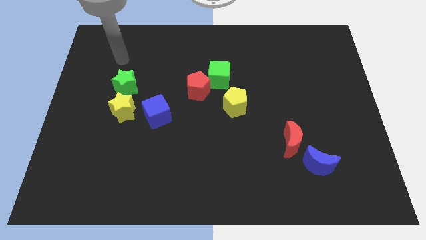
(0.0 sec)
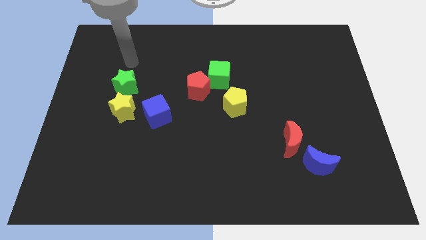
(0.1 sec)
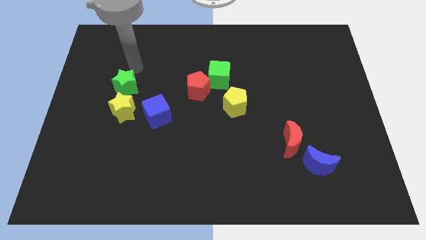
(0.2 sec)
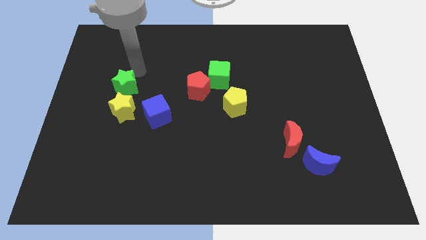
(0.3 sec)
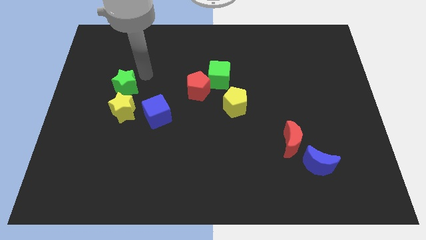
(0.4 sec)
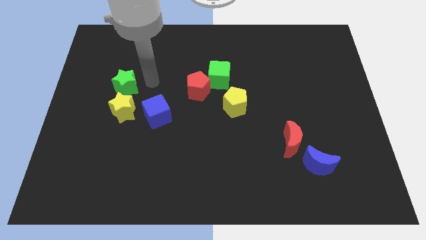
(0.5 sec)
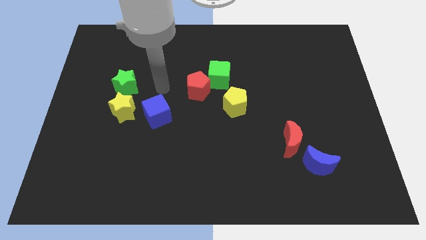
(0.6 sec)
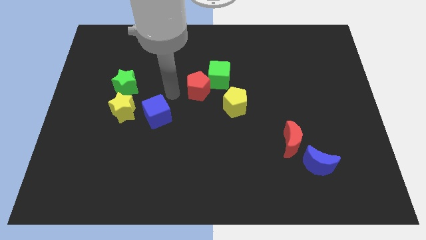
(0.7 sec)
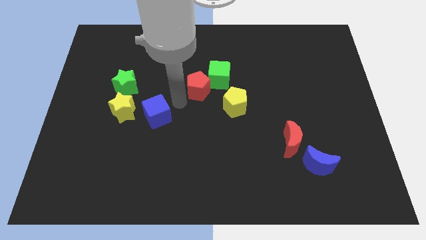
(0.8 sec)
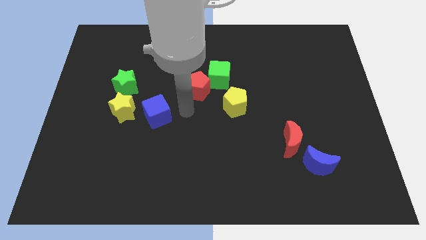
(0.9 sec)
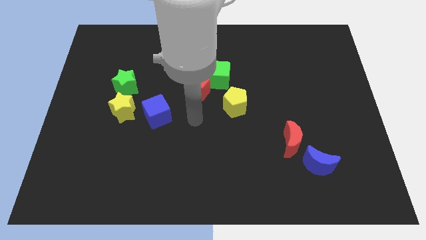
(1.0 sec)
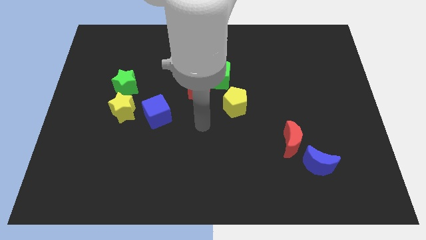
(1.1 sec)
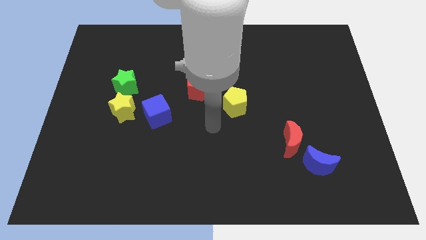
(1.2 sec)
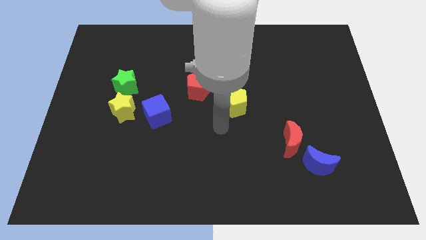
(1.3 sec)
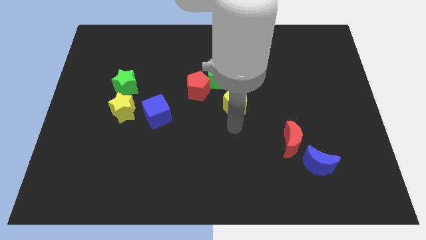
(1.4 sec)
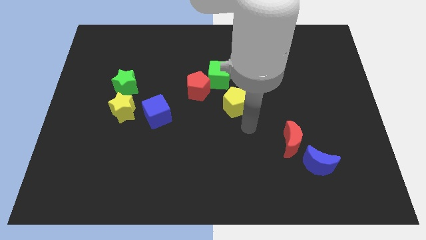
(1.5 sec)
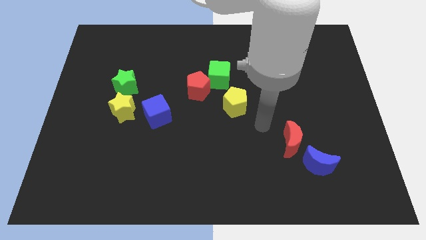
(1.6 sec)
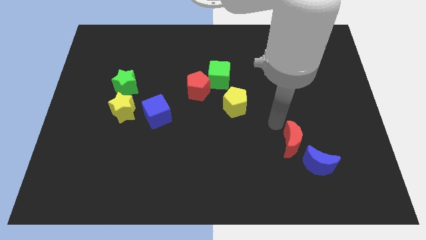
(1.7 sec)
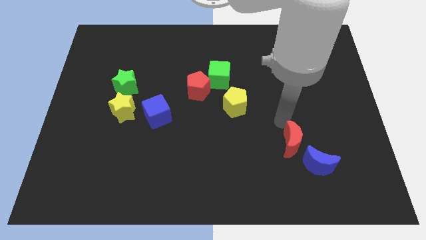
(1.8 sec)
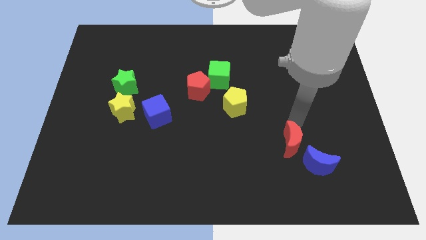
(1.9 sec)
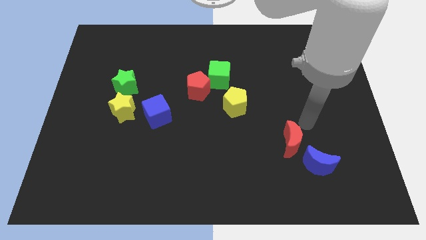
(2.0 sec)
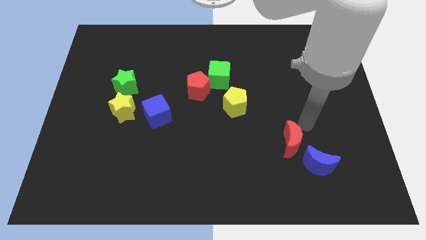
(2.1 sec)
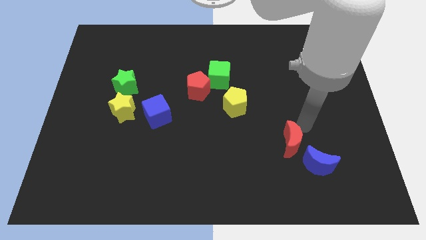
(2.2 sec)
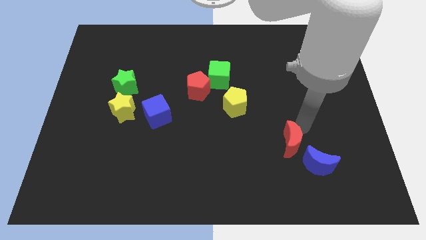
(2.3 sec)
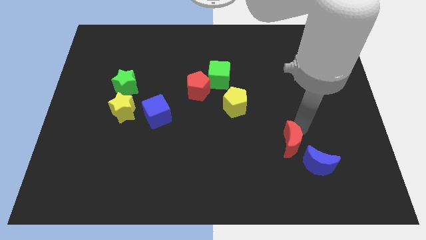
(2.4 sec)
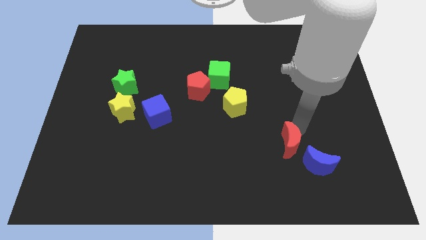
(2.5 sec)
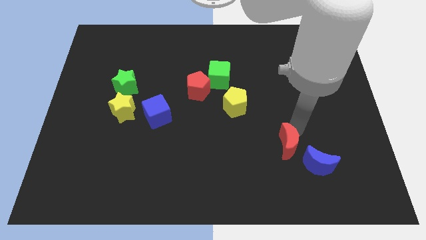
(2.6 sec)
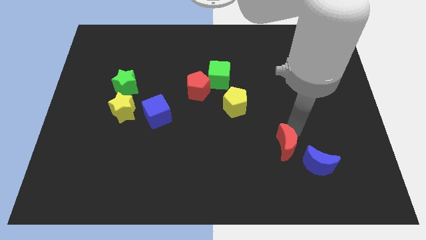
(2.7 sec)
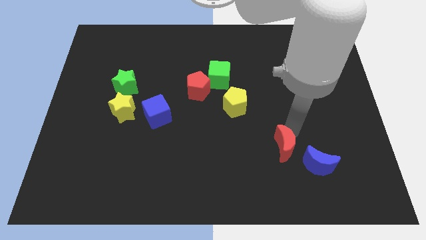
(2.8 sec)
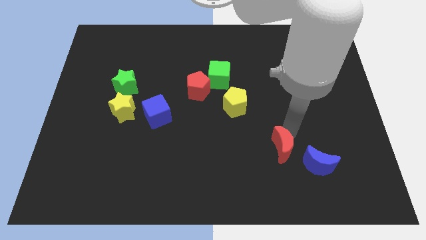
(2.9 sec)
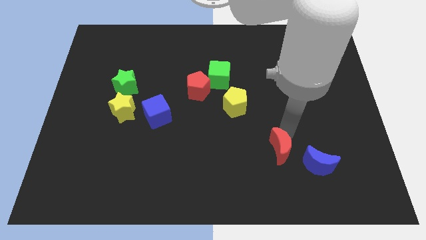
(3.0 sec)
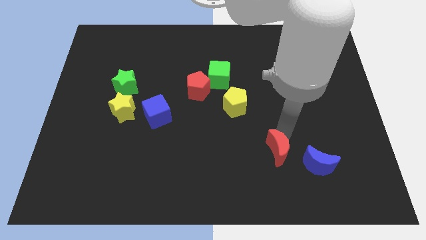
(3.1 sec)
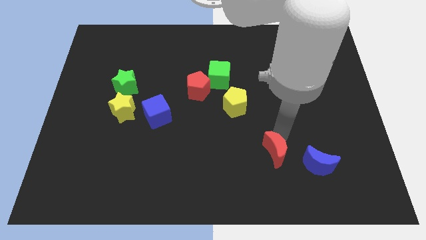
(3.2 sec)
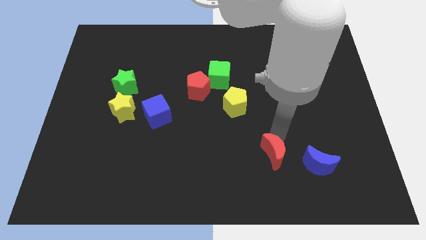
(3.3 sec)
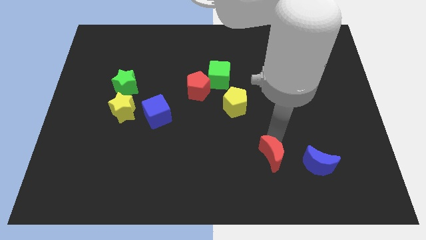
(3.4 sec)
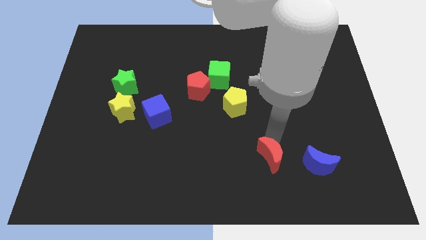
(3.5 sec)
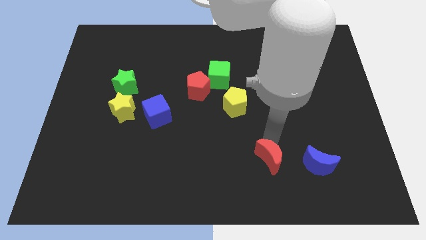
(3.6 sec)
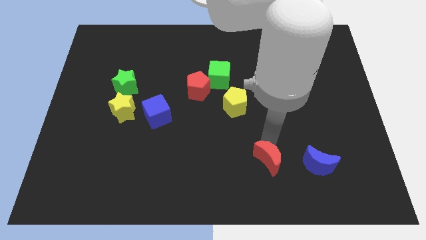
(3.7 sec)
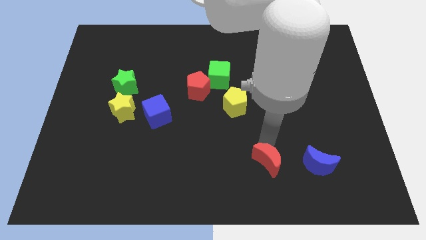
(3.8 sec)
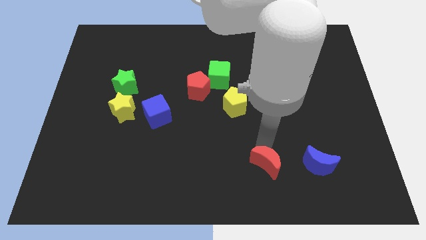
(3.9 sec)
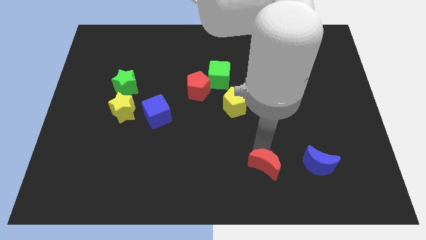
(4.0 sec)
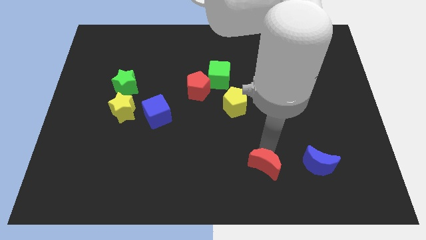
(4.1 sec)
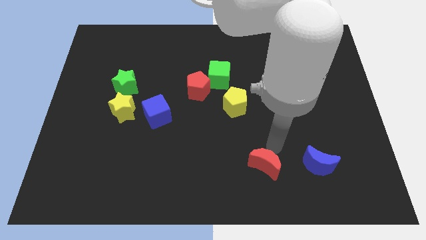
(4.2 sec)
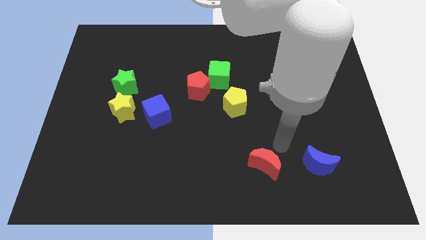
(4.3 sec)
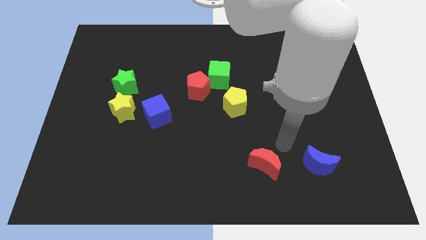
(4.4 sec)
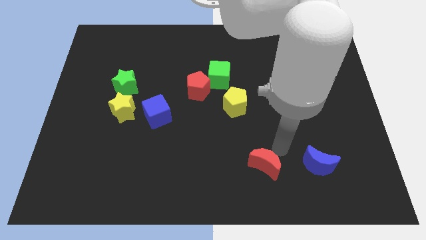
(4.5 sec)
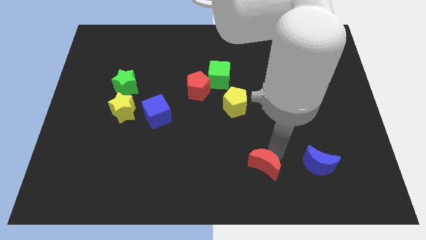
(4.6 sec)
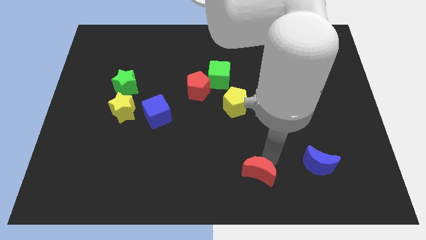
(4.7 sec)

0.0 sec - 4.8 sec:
slide the red moon to the bottom

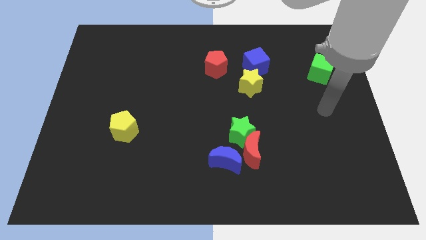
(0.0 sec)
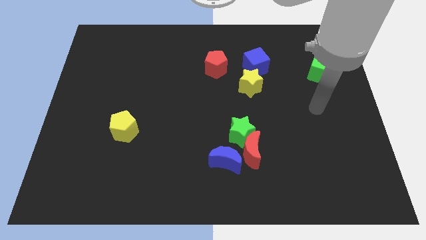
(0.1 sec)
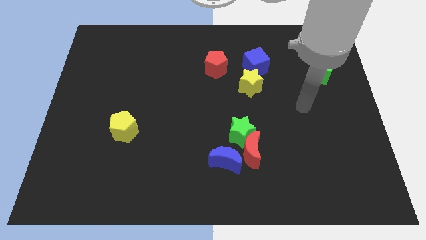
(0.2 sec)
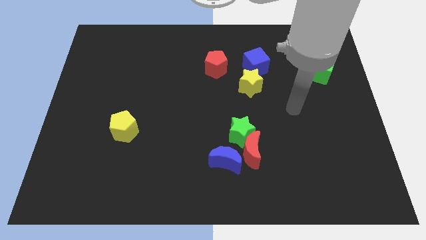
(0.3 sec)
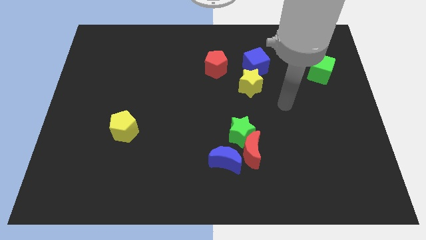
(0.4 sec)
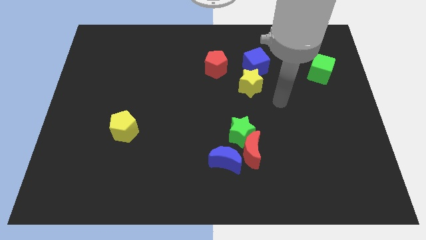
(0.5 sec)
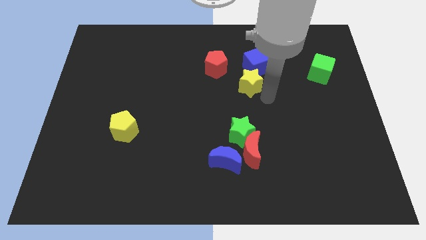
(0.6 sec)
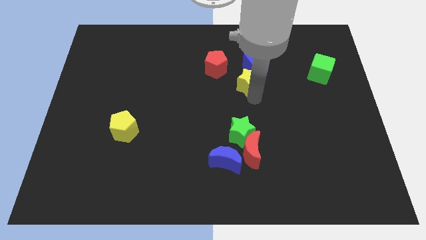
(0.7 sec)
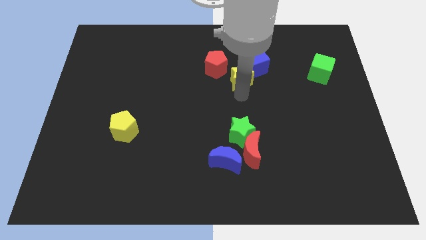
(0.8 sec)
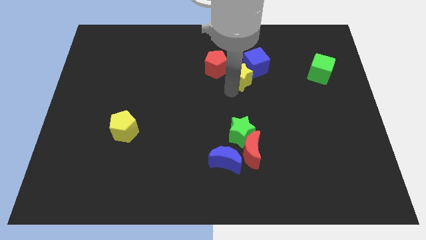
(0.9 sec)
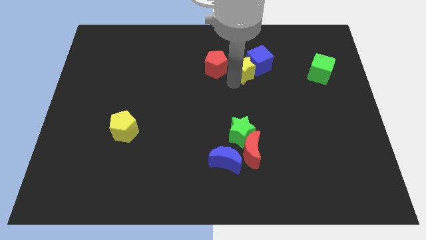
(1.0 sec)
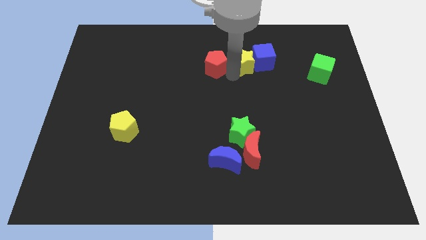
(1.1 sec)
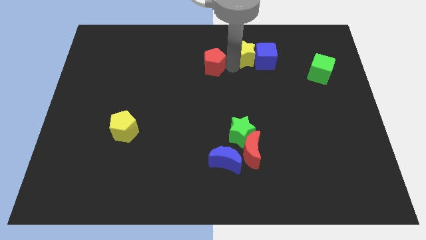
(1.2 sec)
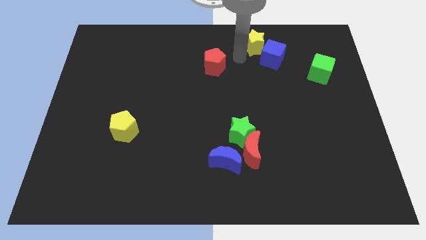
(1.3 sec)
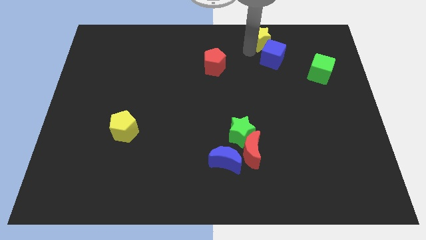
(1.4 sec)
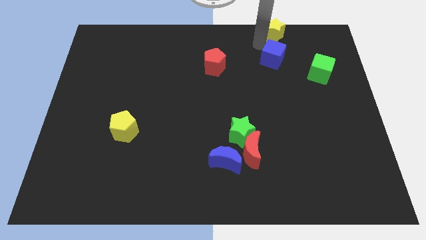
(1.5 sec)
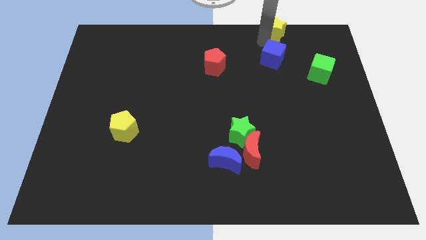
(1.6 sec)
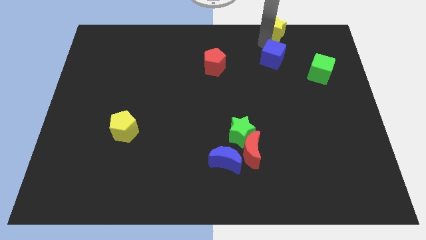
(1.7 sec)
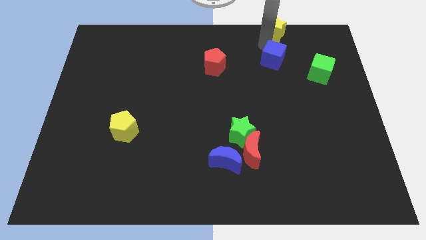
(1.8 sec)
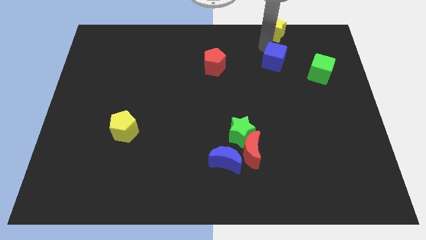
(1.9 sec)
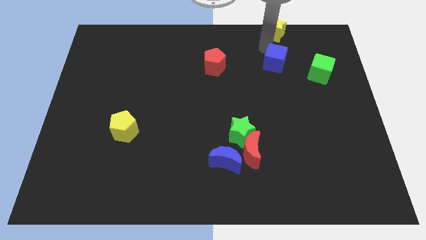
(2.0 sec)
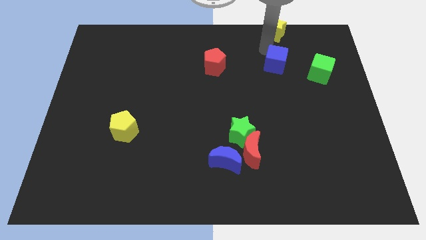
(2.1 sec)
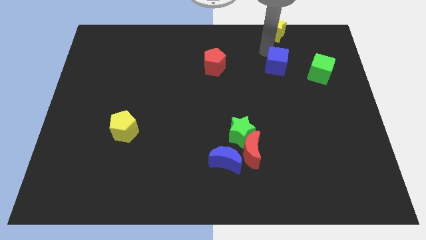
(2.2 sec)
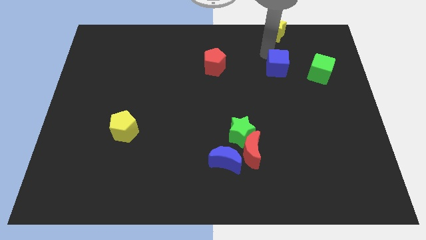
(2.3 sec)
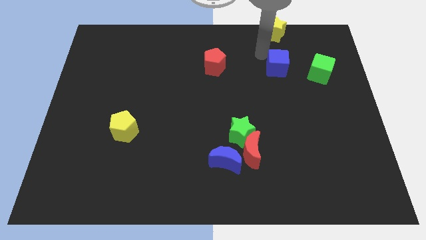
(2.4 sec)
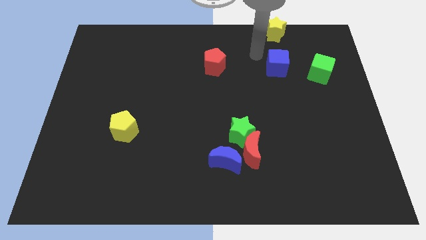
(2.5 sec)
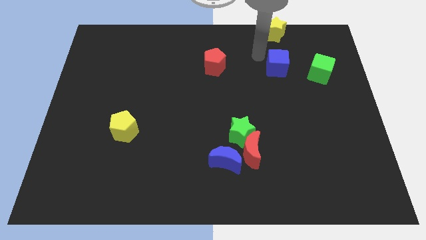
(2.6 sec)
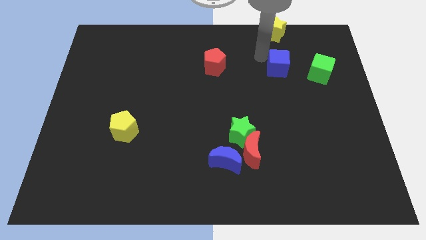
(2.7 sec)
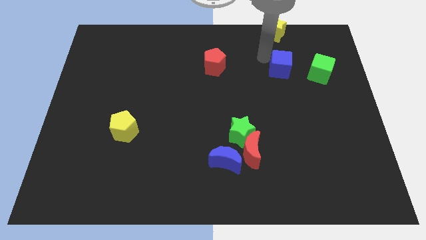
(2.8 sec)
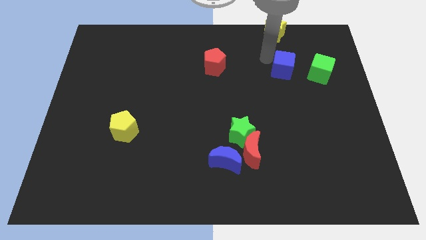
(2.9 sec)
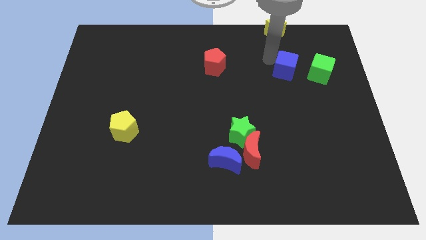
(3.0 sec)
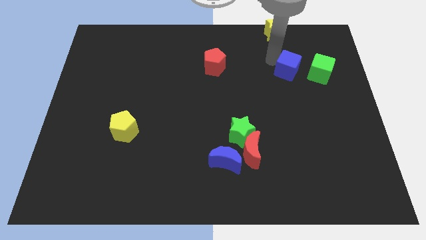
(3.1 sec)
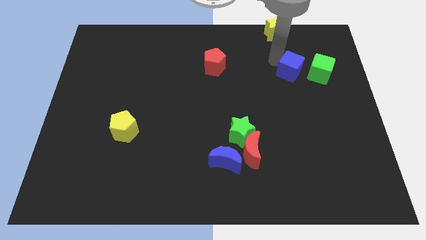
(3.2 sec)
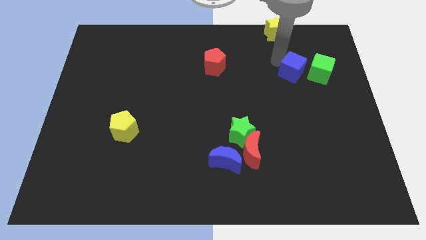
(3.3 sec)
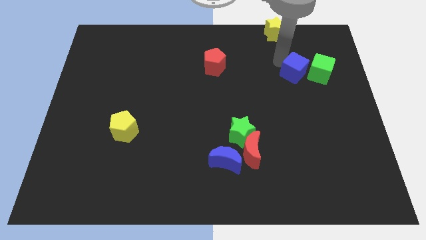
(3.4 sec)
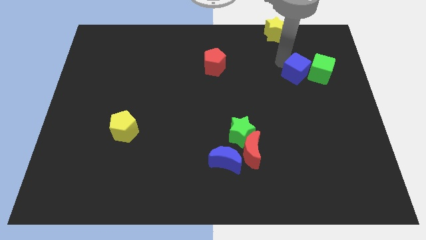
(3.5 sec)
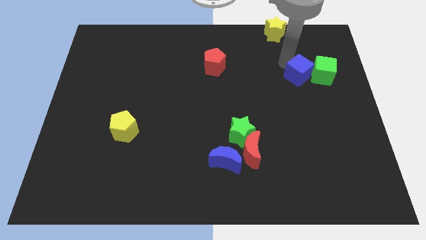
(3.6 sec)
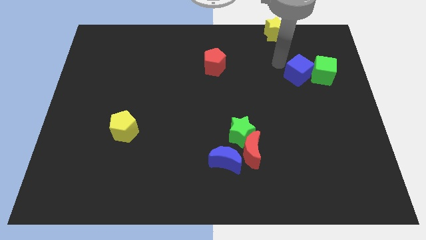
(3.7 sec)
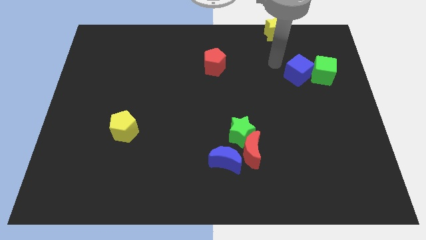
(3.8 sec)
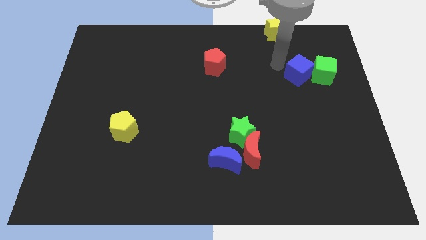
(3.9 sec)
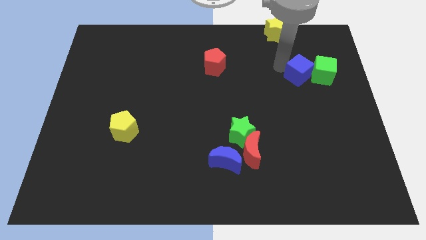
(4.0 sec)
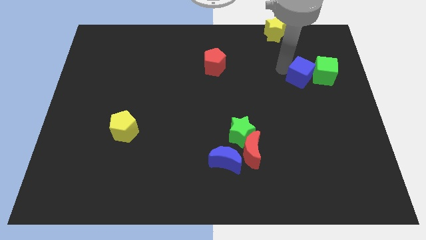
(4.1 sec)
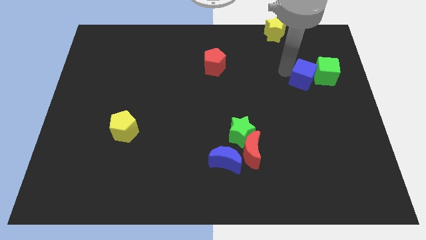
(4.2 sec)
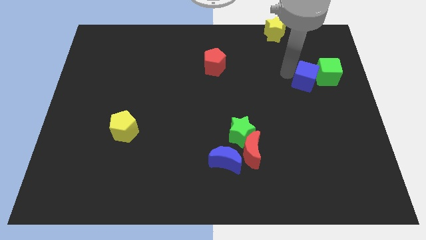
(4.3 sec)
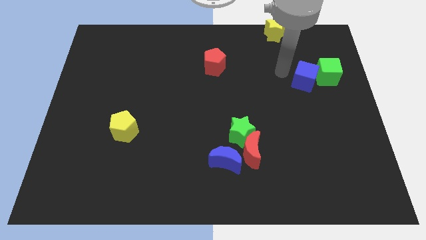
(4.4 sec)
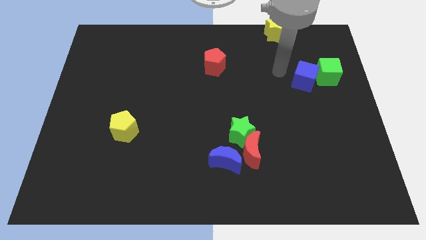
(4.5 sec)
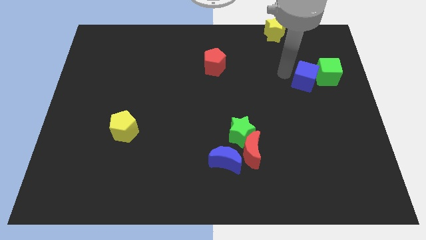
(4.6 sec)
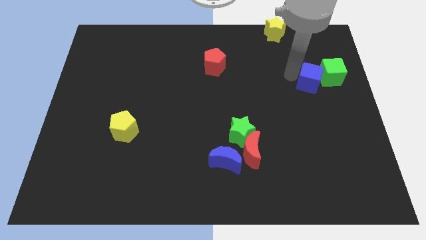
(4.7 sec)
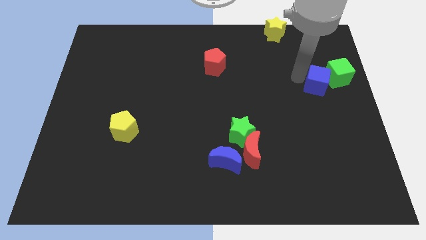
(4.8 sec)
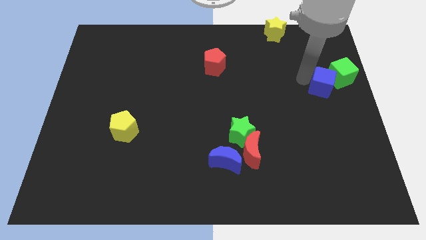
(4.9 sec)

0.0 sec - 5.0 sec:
put the blue cube to the right side
